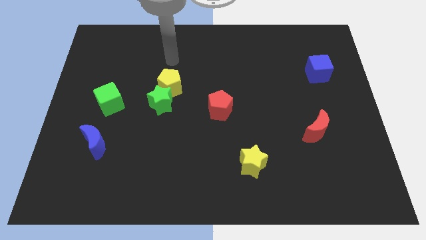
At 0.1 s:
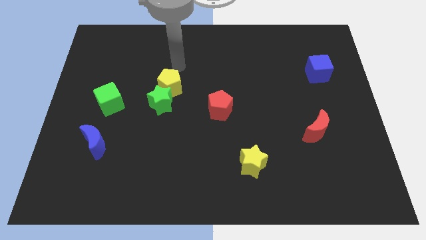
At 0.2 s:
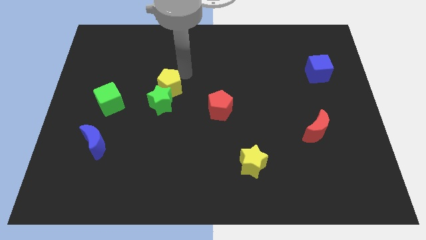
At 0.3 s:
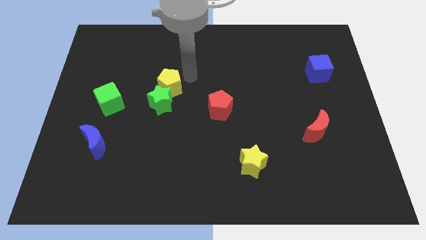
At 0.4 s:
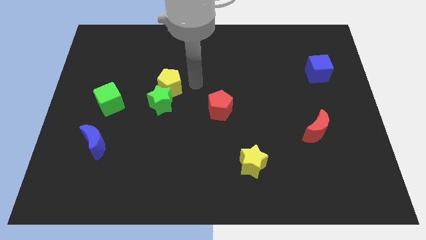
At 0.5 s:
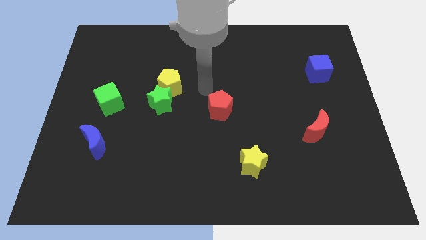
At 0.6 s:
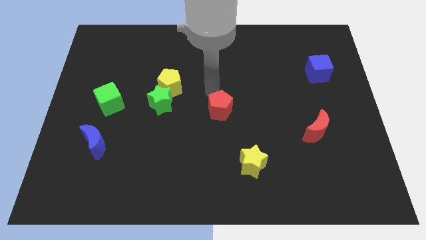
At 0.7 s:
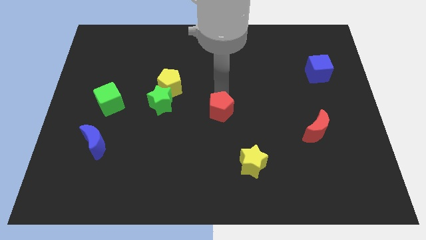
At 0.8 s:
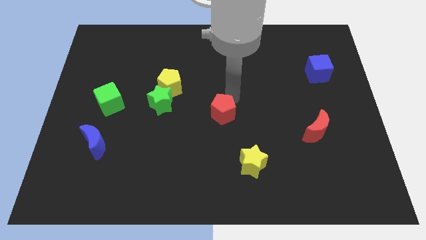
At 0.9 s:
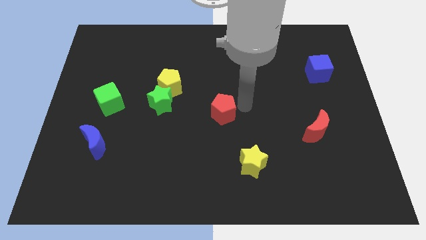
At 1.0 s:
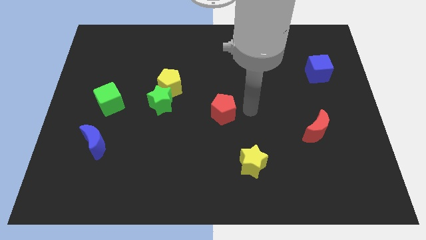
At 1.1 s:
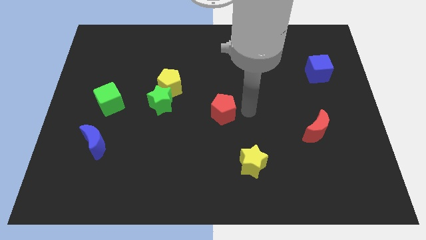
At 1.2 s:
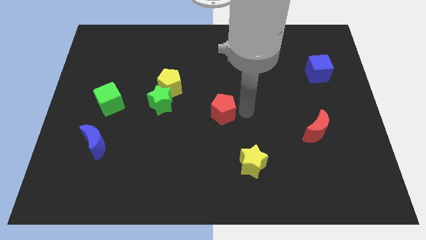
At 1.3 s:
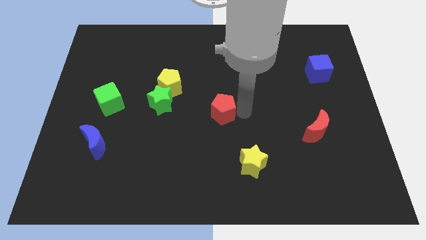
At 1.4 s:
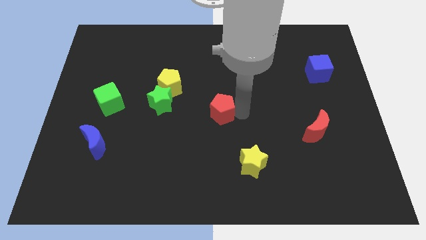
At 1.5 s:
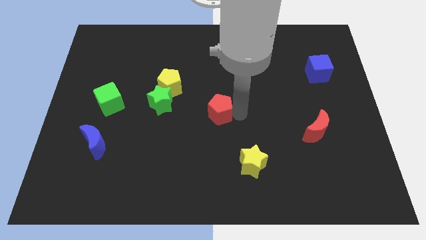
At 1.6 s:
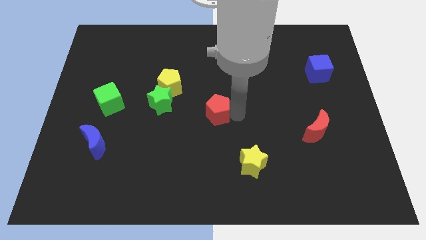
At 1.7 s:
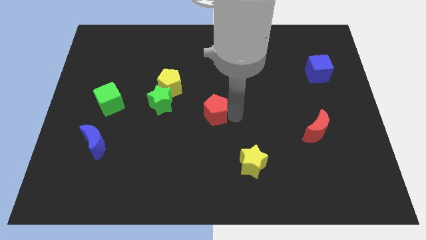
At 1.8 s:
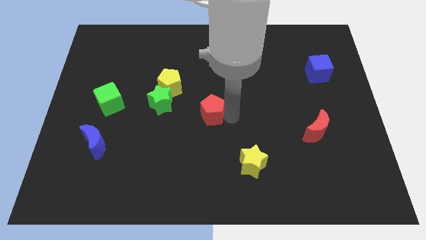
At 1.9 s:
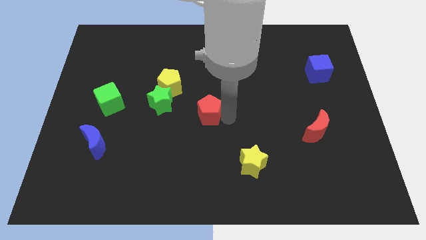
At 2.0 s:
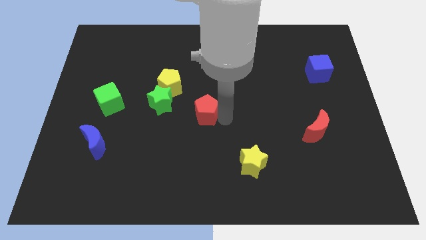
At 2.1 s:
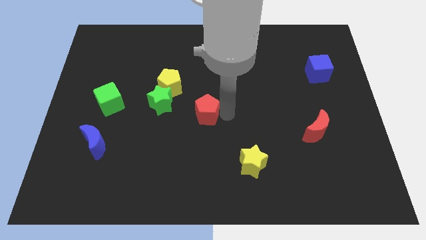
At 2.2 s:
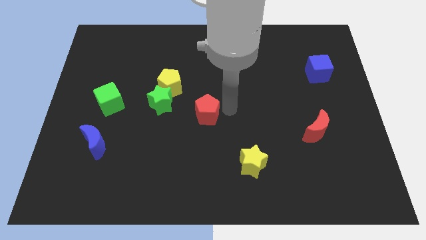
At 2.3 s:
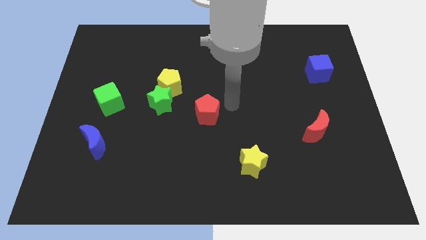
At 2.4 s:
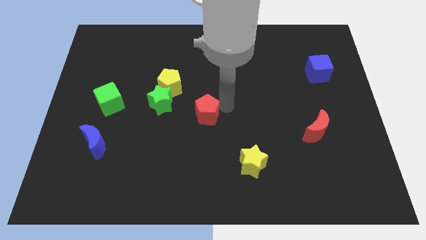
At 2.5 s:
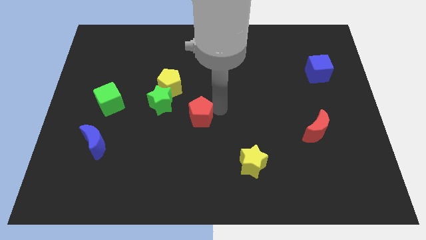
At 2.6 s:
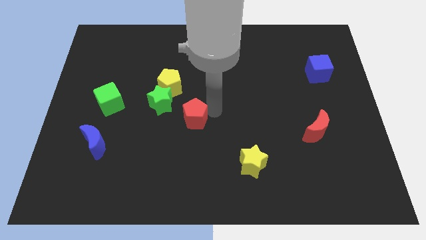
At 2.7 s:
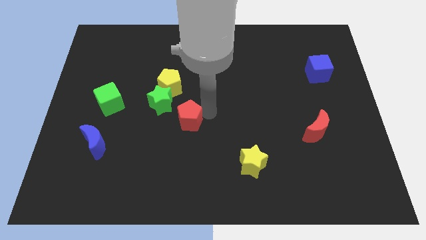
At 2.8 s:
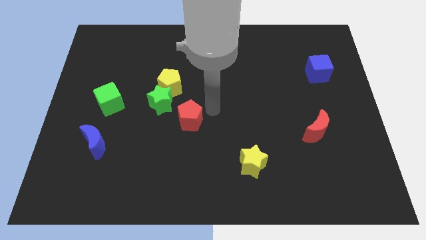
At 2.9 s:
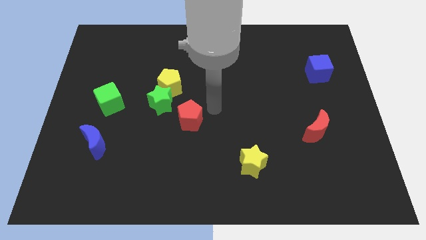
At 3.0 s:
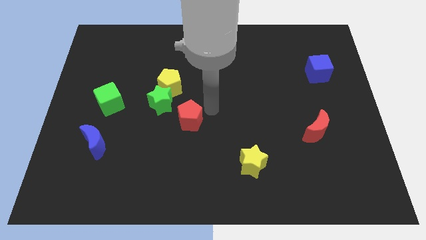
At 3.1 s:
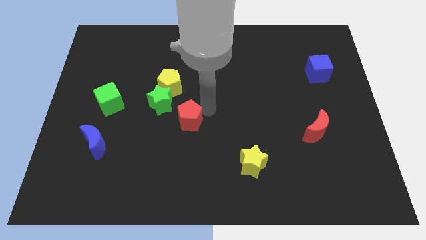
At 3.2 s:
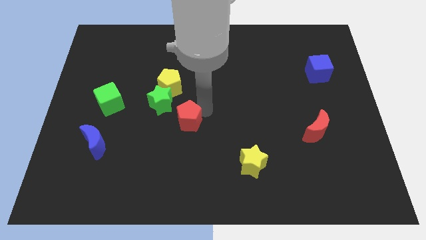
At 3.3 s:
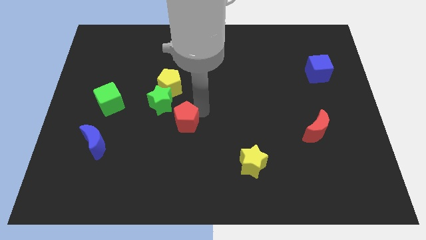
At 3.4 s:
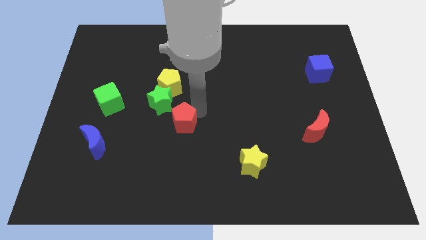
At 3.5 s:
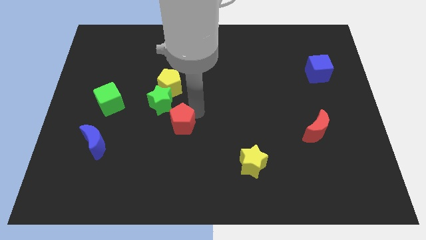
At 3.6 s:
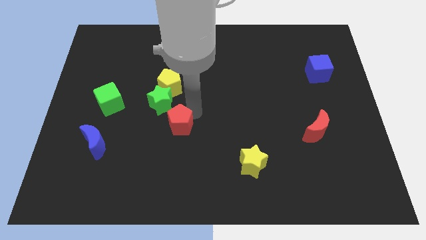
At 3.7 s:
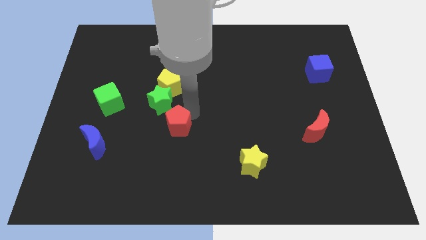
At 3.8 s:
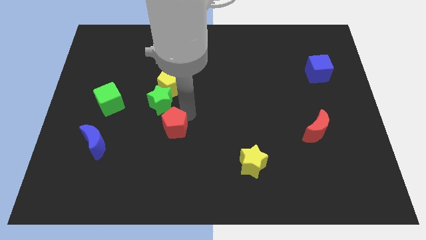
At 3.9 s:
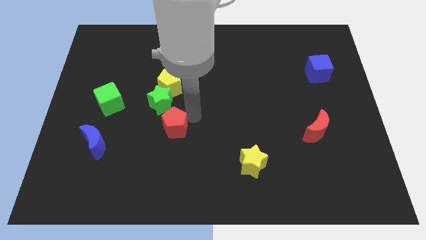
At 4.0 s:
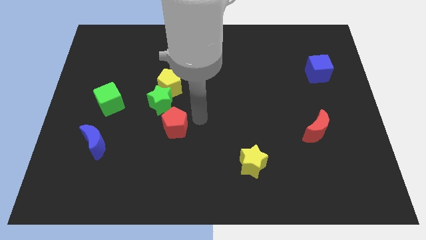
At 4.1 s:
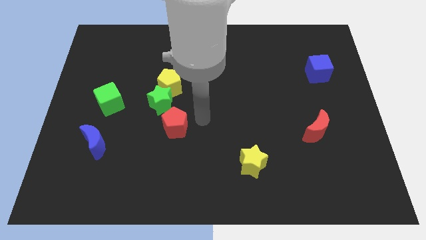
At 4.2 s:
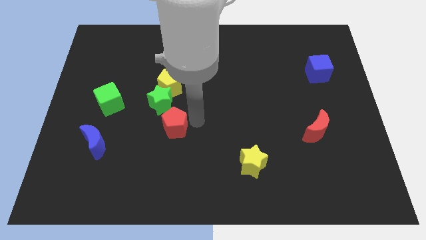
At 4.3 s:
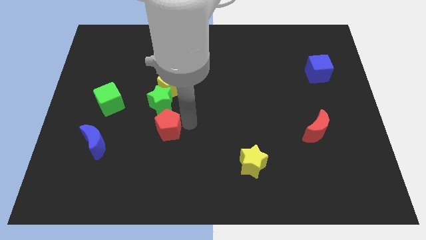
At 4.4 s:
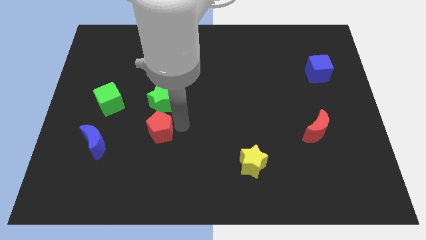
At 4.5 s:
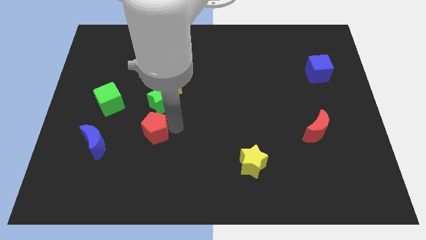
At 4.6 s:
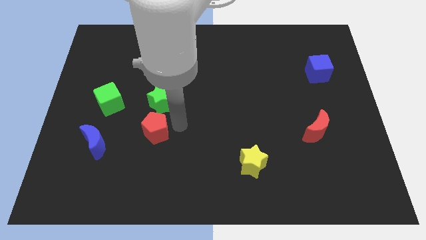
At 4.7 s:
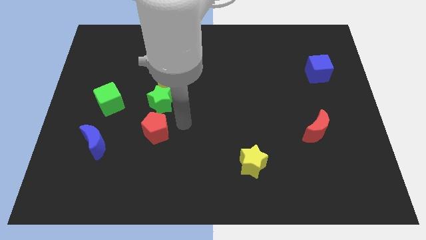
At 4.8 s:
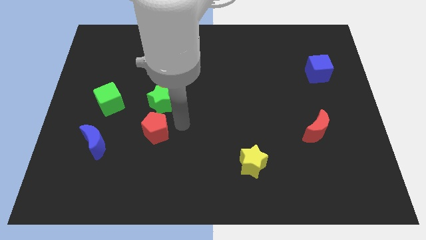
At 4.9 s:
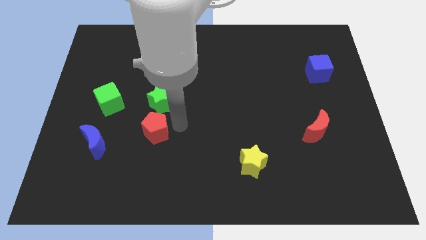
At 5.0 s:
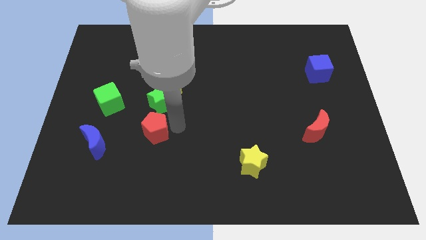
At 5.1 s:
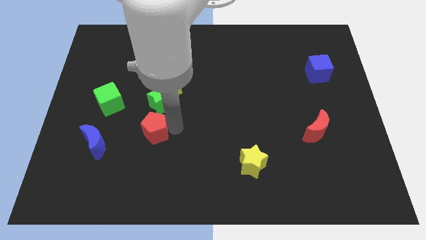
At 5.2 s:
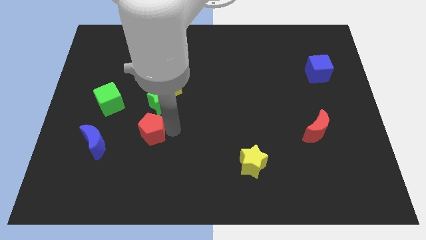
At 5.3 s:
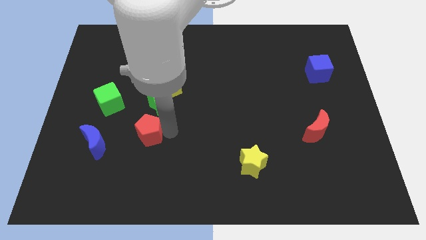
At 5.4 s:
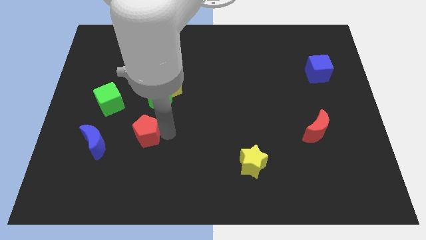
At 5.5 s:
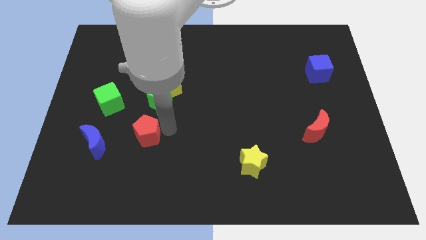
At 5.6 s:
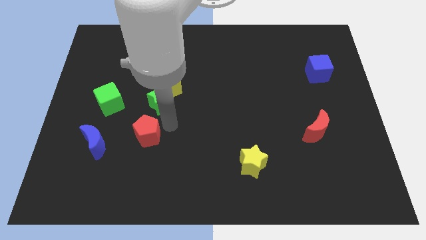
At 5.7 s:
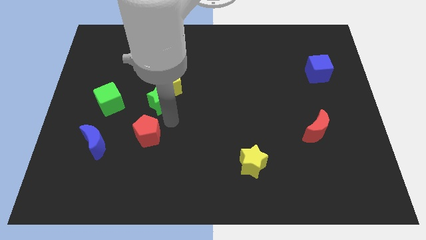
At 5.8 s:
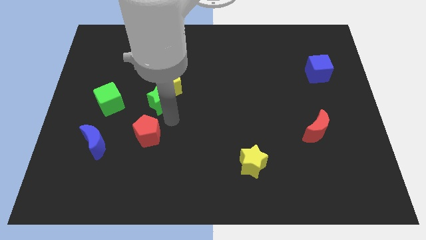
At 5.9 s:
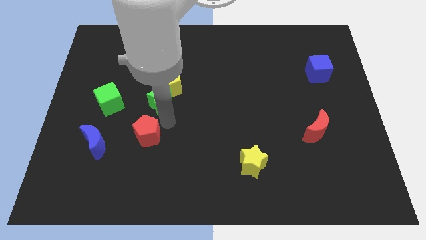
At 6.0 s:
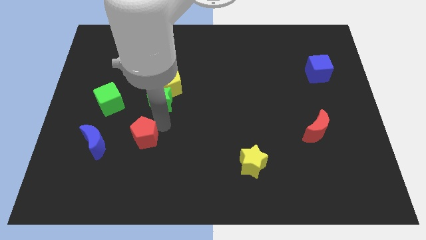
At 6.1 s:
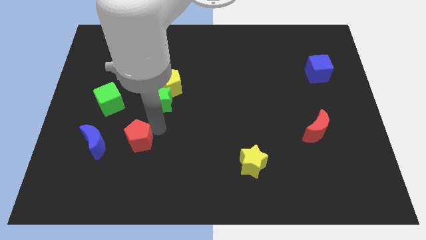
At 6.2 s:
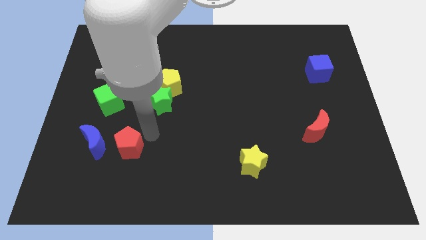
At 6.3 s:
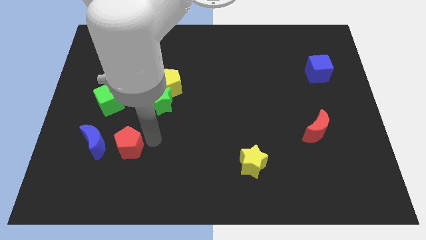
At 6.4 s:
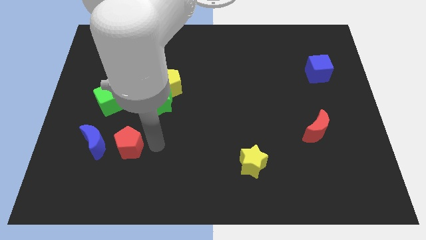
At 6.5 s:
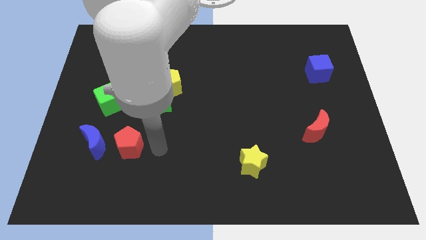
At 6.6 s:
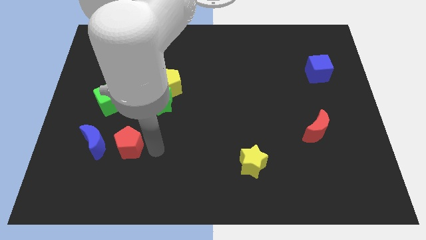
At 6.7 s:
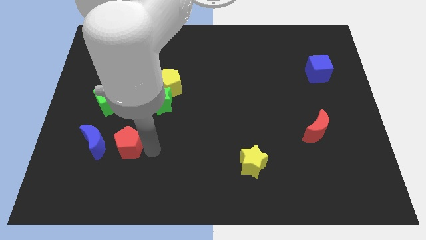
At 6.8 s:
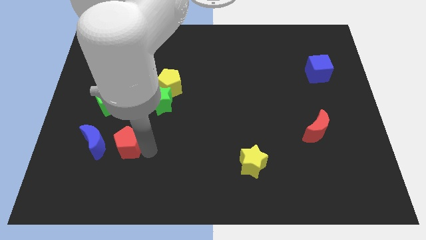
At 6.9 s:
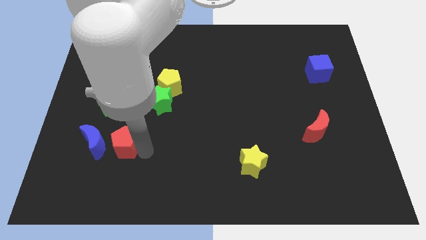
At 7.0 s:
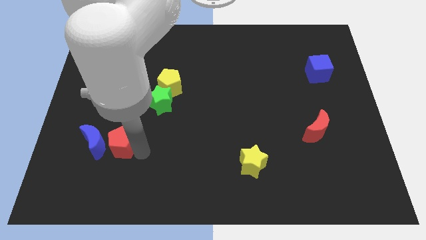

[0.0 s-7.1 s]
push the red pentagon next to the blue moon

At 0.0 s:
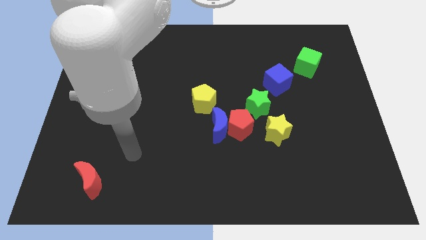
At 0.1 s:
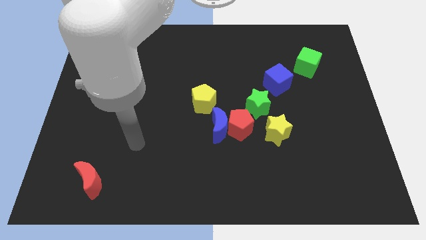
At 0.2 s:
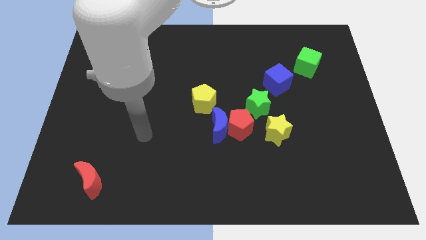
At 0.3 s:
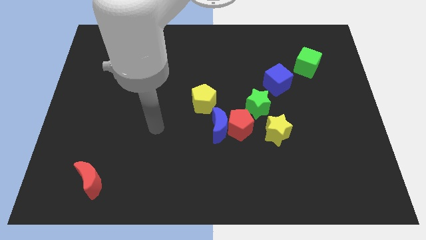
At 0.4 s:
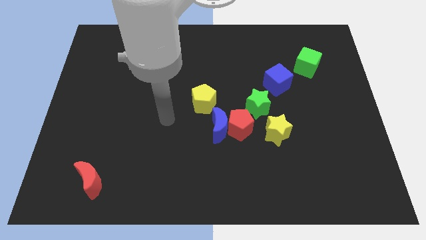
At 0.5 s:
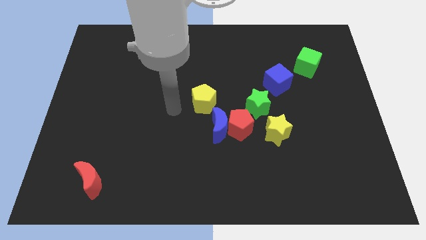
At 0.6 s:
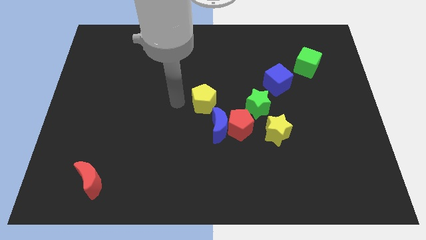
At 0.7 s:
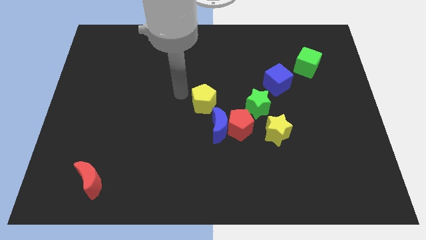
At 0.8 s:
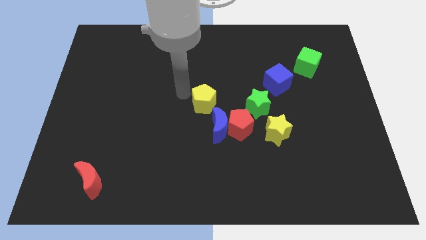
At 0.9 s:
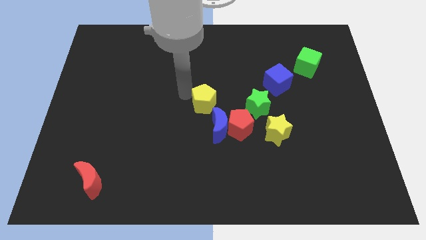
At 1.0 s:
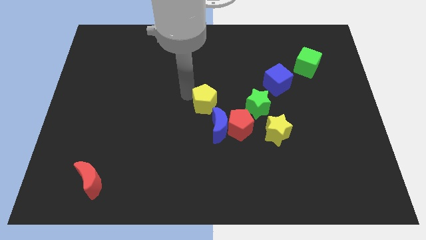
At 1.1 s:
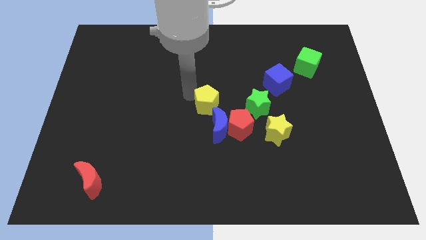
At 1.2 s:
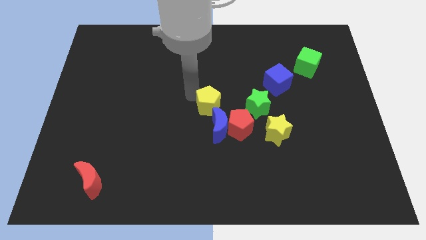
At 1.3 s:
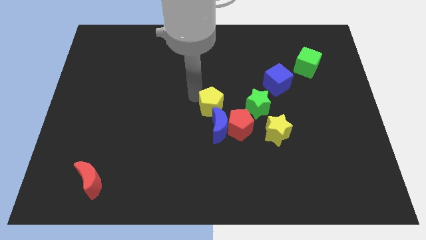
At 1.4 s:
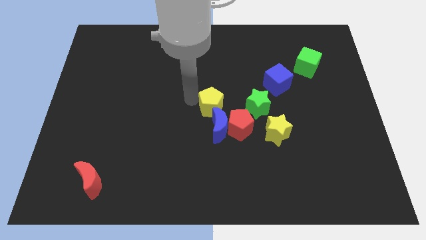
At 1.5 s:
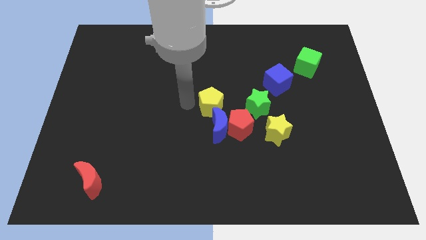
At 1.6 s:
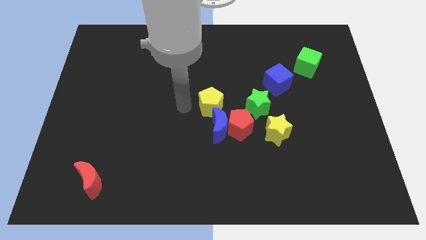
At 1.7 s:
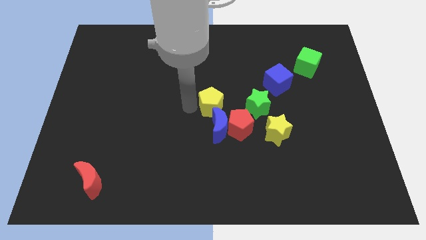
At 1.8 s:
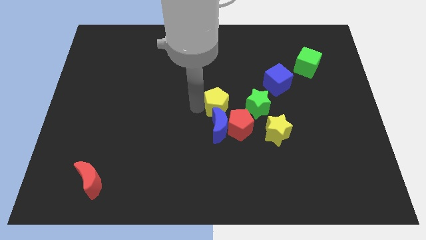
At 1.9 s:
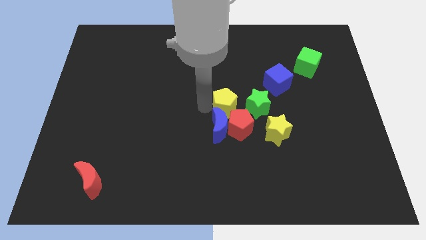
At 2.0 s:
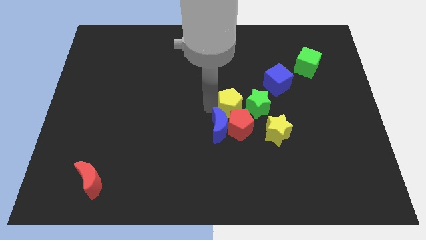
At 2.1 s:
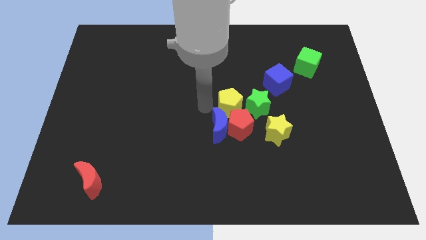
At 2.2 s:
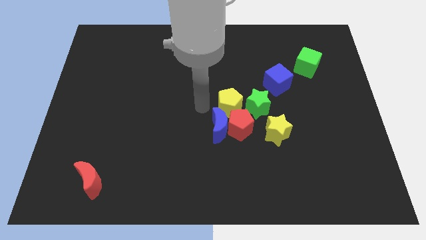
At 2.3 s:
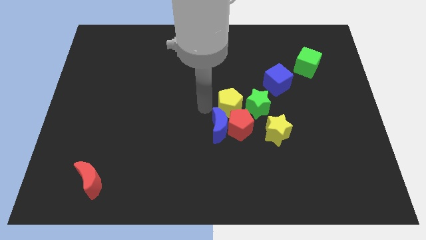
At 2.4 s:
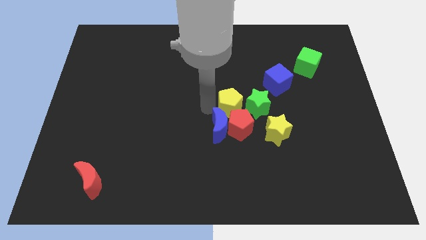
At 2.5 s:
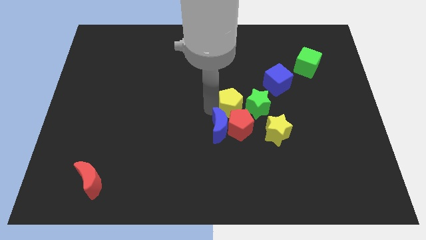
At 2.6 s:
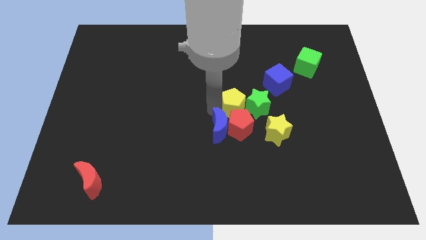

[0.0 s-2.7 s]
slide the yellow pentagon next to the green star
